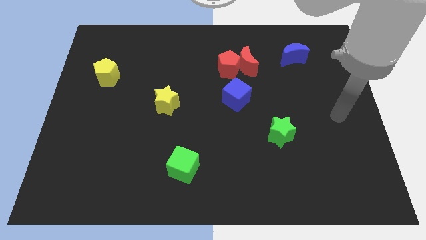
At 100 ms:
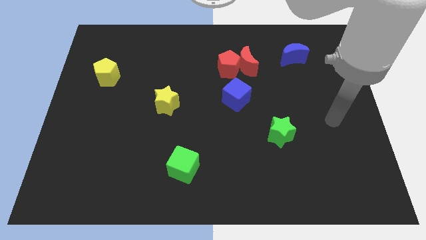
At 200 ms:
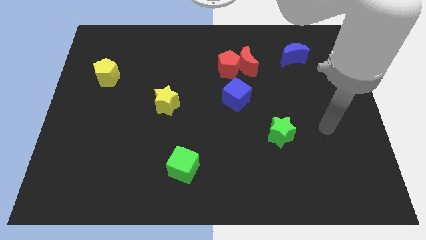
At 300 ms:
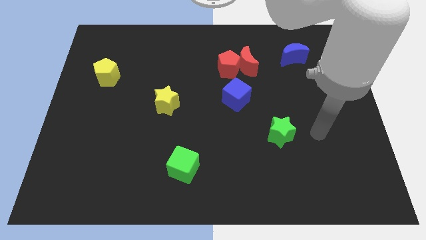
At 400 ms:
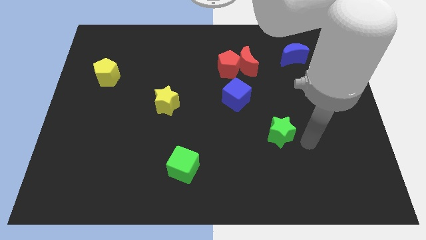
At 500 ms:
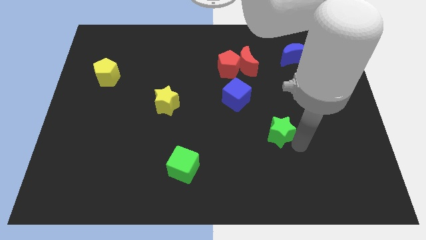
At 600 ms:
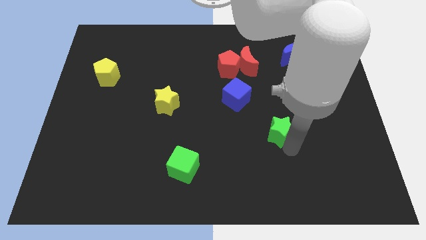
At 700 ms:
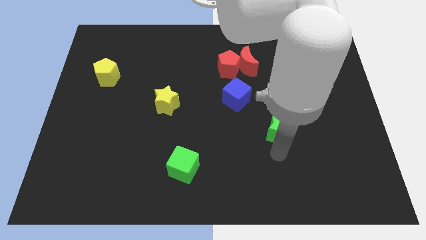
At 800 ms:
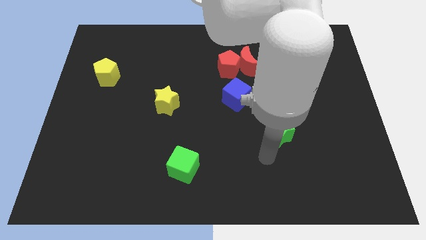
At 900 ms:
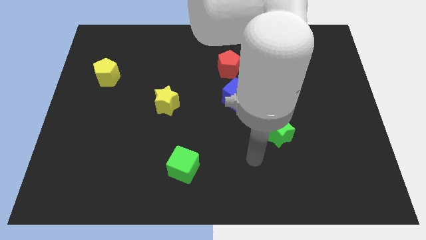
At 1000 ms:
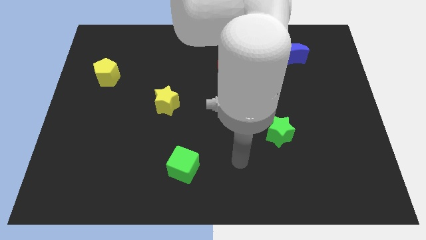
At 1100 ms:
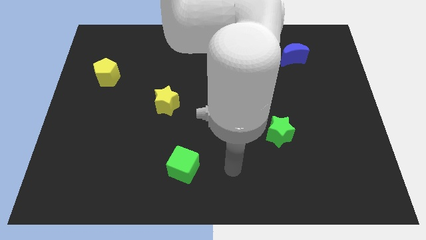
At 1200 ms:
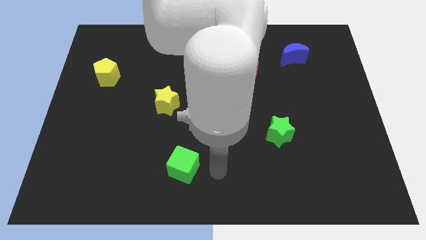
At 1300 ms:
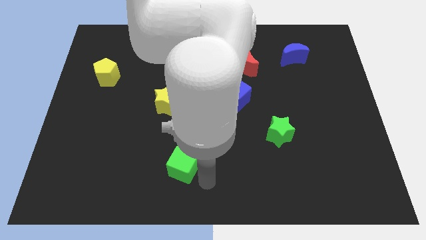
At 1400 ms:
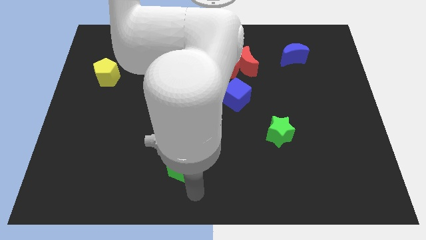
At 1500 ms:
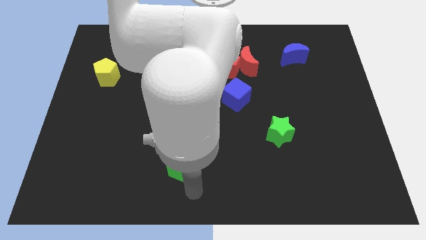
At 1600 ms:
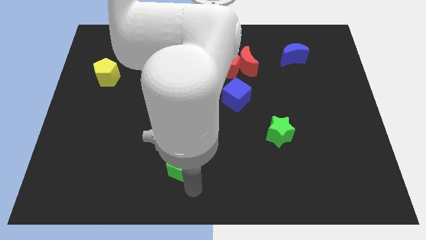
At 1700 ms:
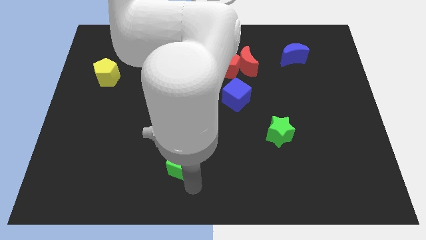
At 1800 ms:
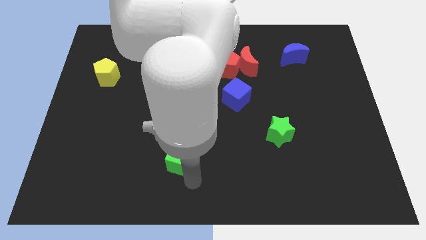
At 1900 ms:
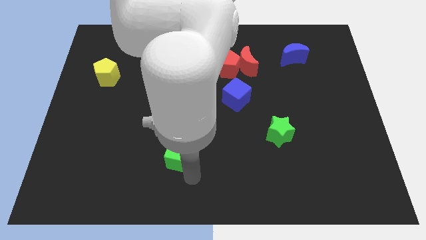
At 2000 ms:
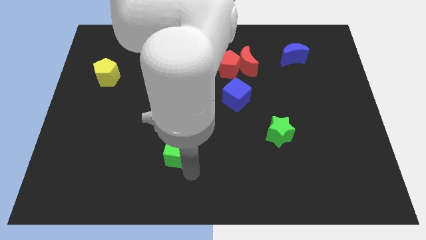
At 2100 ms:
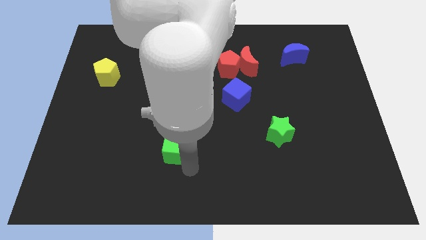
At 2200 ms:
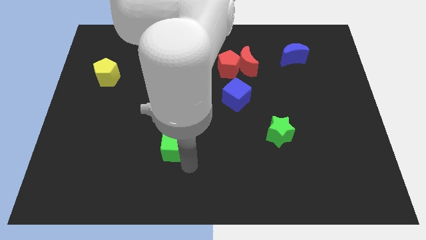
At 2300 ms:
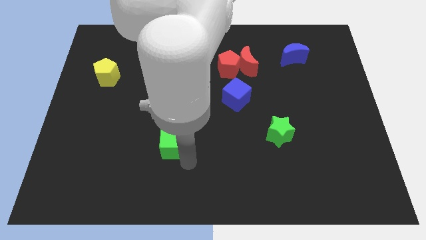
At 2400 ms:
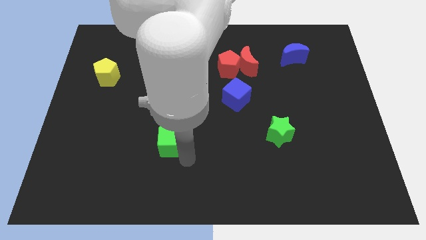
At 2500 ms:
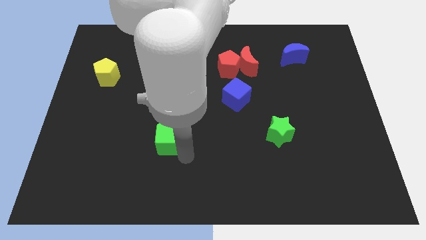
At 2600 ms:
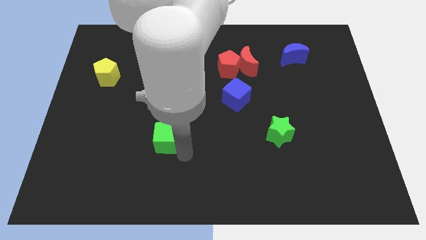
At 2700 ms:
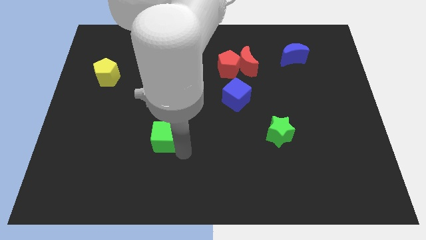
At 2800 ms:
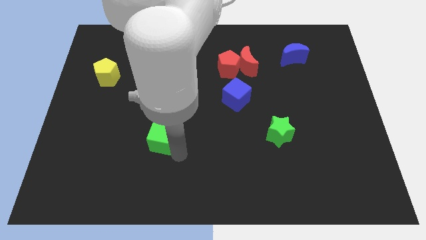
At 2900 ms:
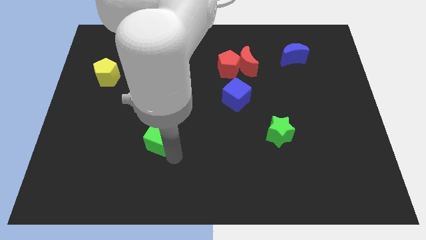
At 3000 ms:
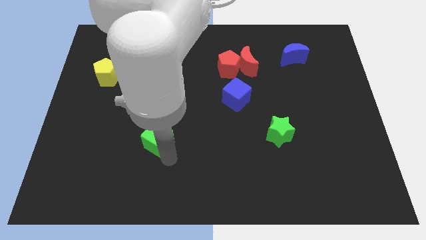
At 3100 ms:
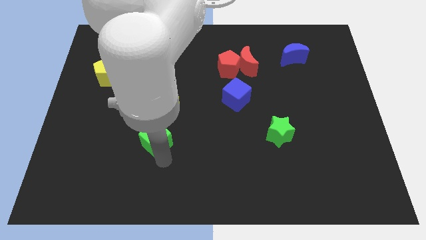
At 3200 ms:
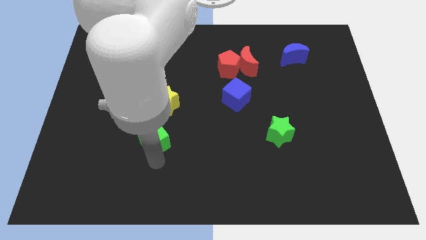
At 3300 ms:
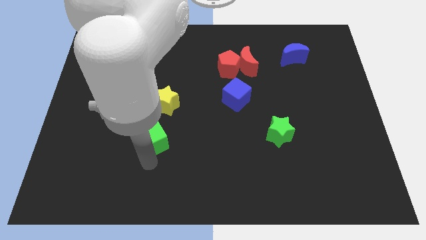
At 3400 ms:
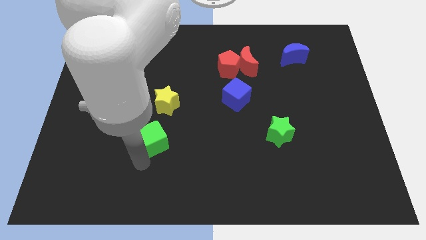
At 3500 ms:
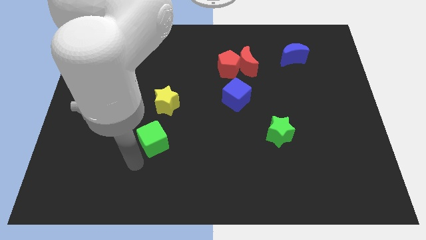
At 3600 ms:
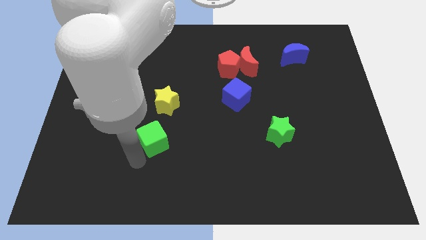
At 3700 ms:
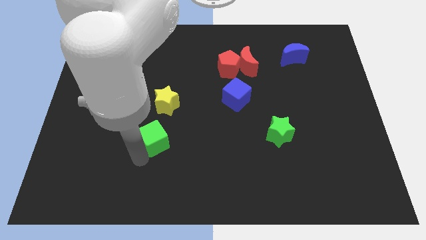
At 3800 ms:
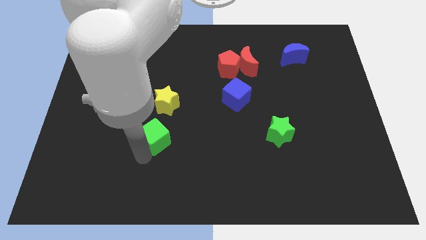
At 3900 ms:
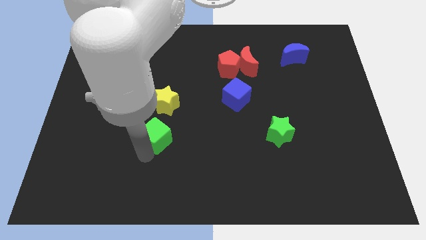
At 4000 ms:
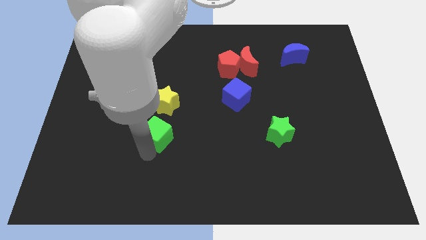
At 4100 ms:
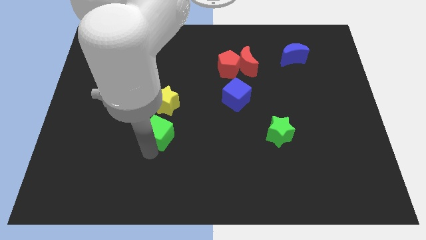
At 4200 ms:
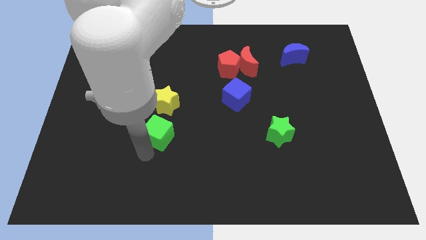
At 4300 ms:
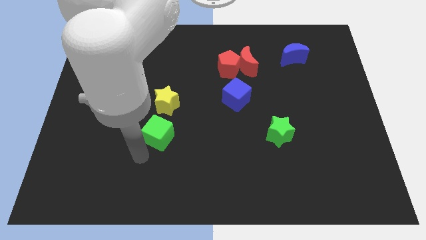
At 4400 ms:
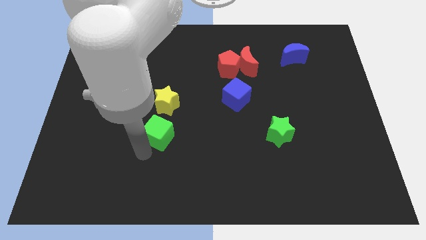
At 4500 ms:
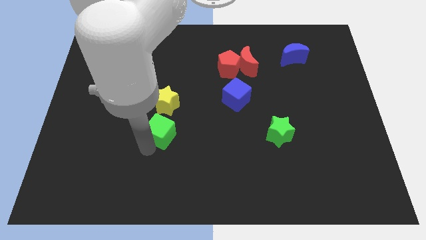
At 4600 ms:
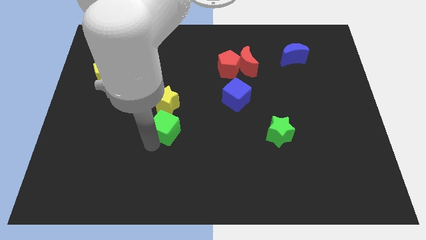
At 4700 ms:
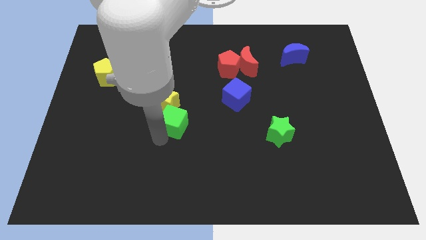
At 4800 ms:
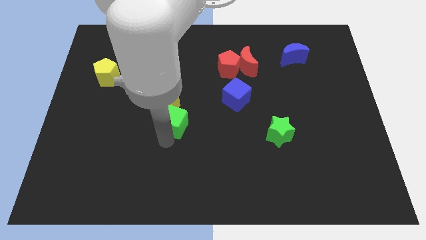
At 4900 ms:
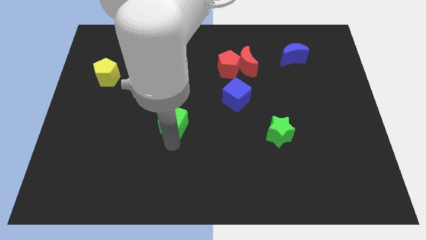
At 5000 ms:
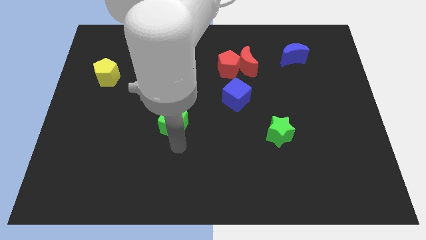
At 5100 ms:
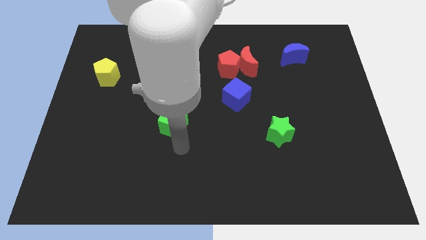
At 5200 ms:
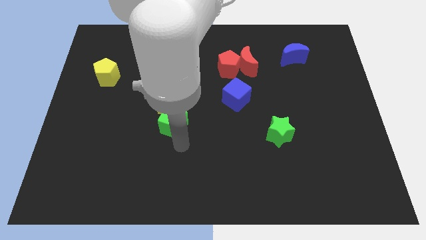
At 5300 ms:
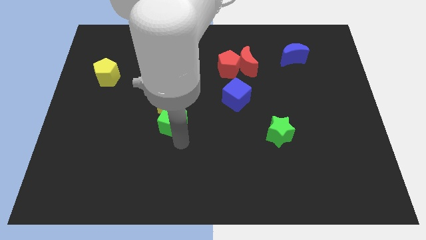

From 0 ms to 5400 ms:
move the green cube close to the yellow star

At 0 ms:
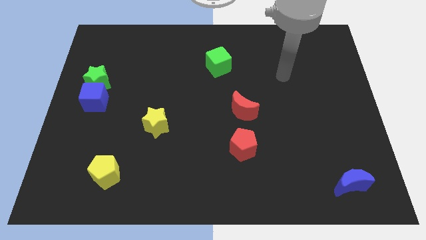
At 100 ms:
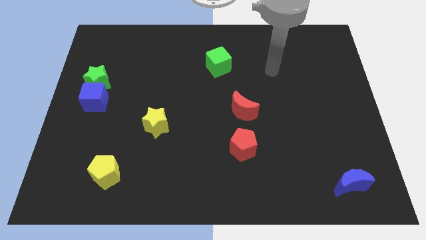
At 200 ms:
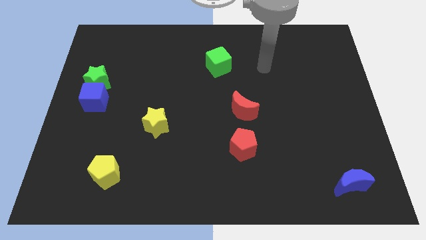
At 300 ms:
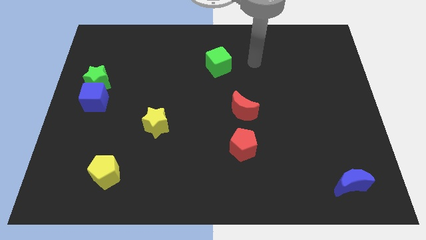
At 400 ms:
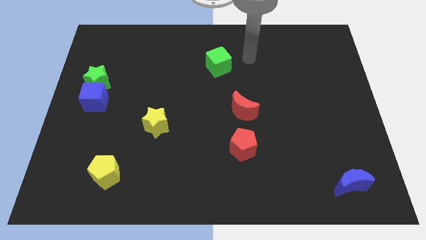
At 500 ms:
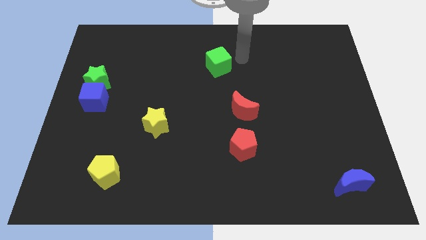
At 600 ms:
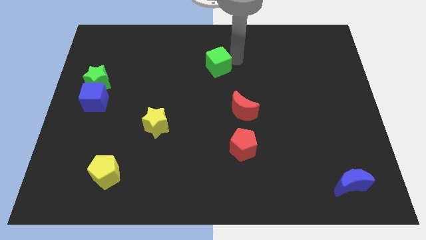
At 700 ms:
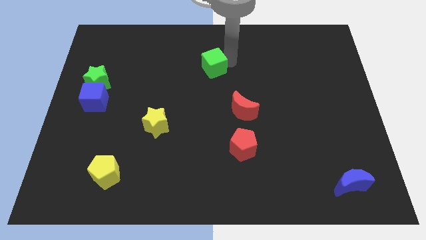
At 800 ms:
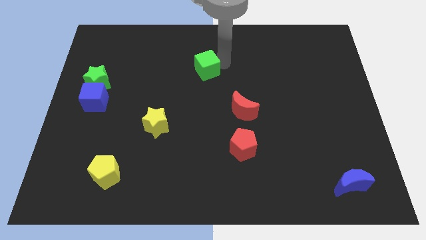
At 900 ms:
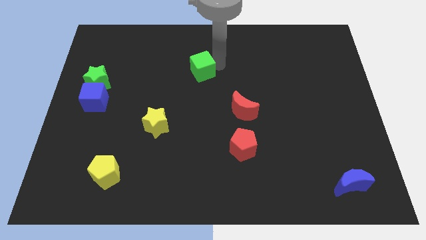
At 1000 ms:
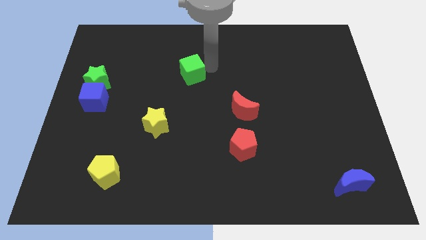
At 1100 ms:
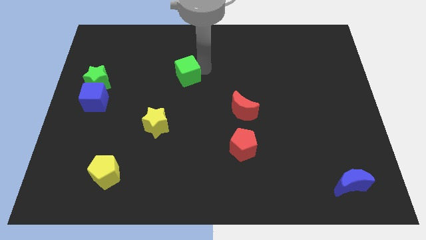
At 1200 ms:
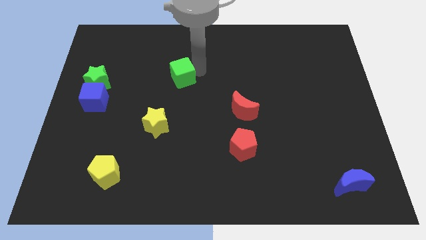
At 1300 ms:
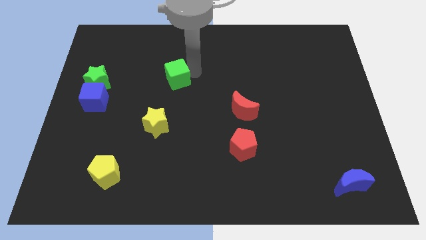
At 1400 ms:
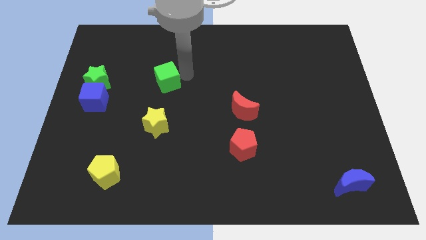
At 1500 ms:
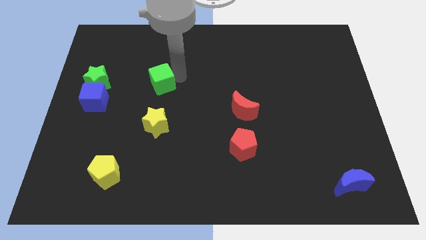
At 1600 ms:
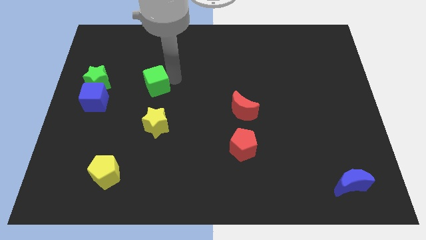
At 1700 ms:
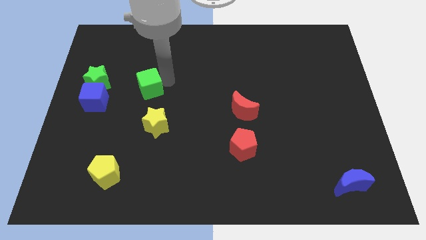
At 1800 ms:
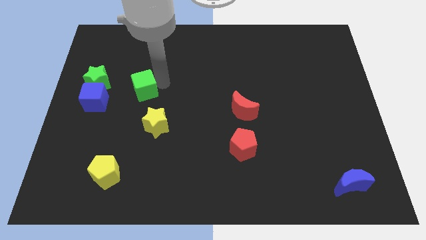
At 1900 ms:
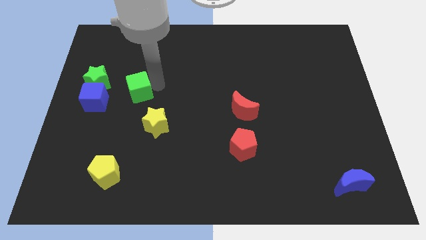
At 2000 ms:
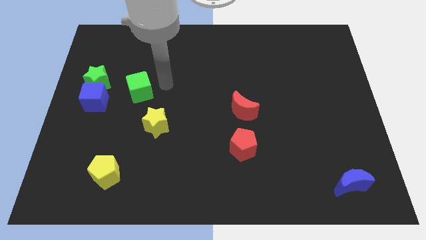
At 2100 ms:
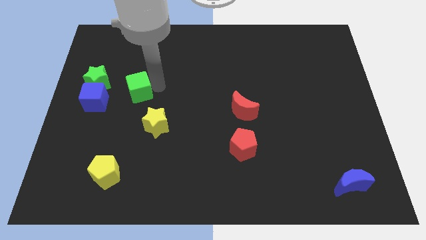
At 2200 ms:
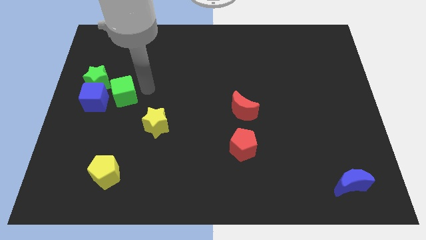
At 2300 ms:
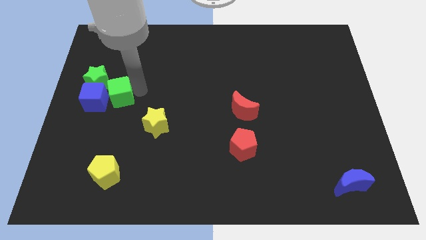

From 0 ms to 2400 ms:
move the green cube to the blue cube
